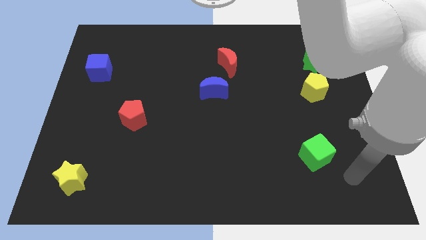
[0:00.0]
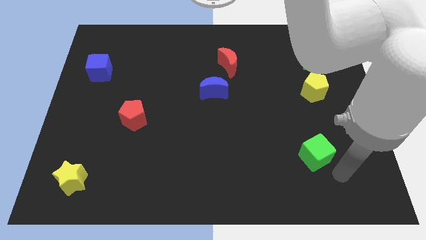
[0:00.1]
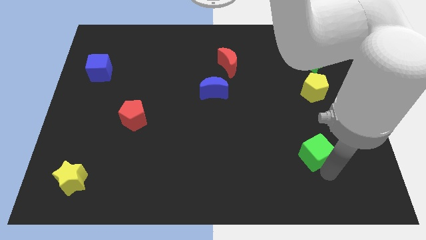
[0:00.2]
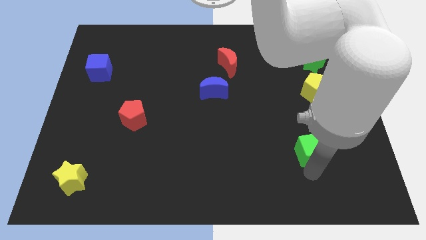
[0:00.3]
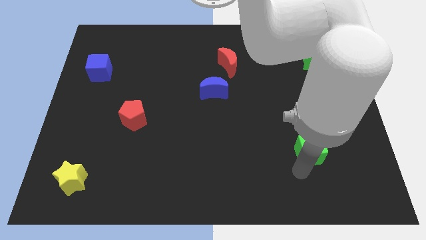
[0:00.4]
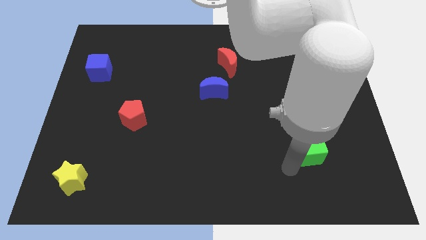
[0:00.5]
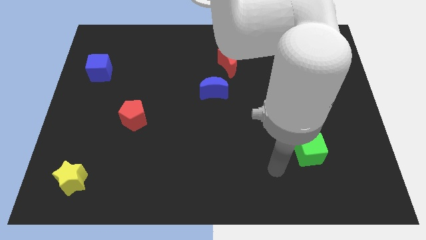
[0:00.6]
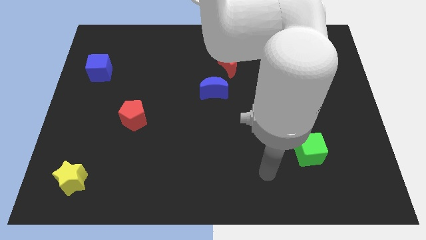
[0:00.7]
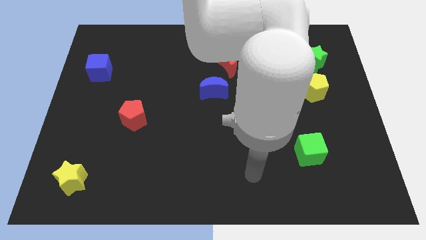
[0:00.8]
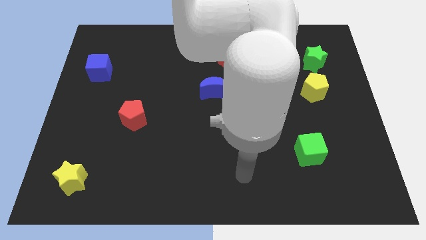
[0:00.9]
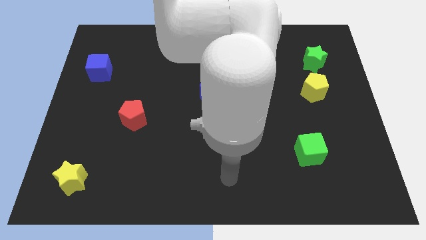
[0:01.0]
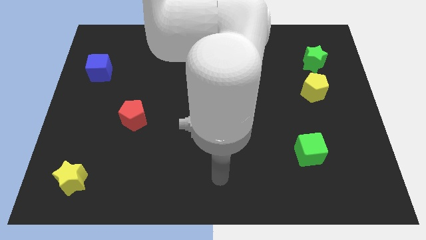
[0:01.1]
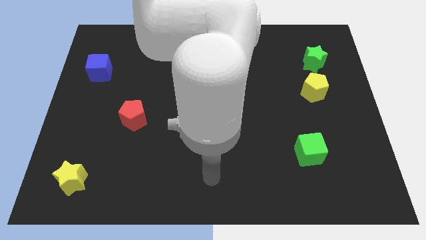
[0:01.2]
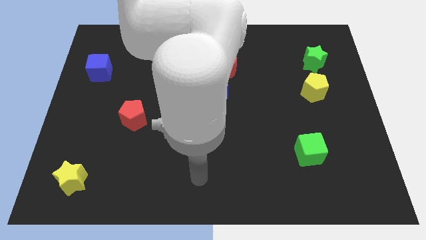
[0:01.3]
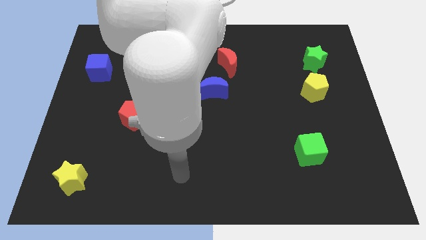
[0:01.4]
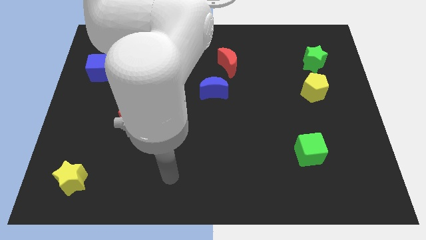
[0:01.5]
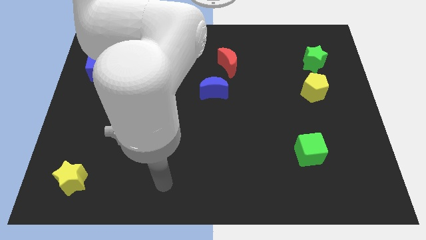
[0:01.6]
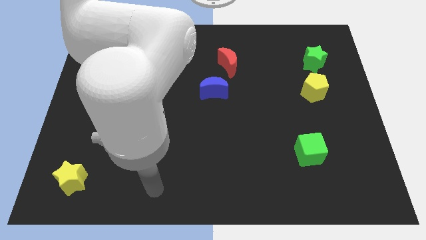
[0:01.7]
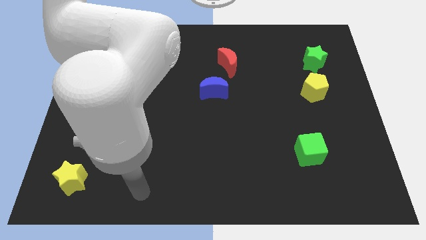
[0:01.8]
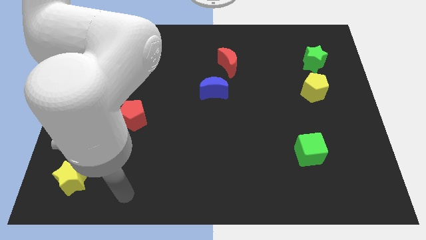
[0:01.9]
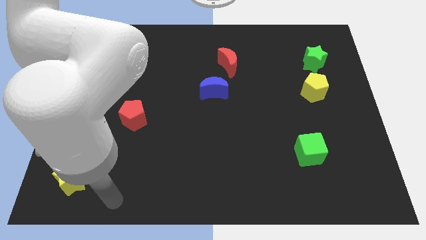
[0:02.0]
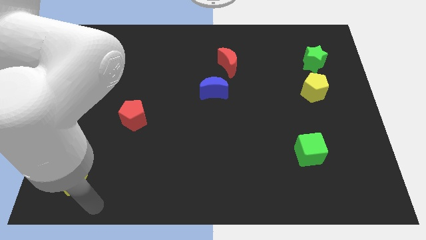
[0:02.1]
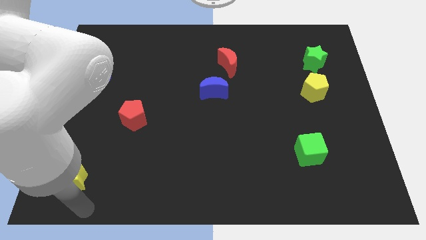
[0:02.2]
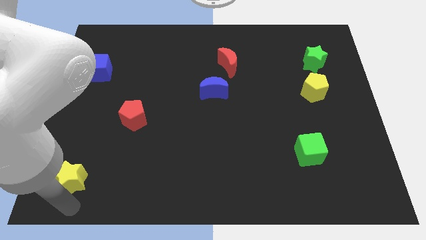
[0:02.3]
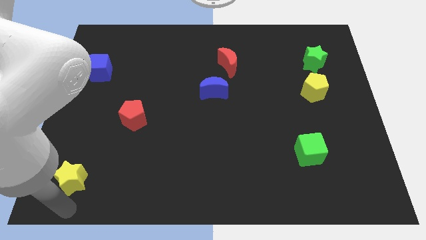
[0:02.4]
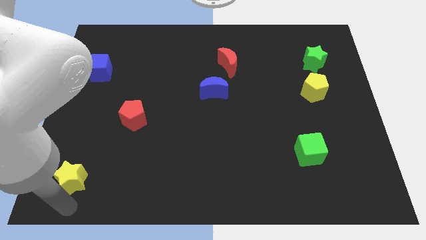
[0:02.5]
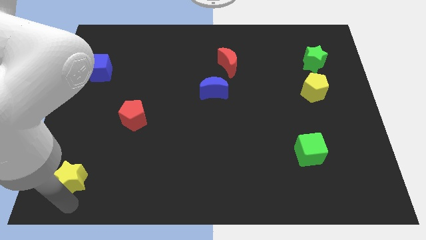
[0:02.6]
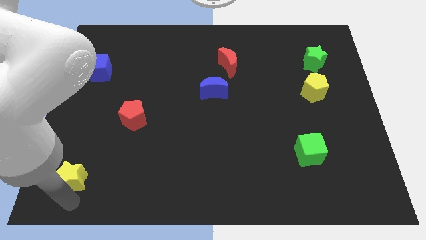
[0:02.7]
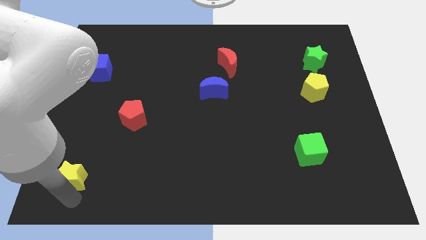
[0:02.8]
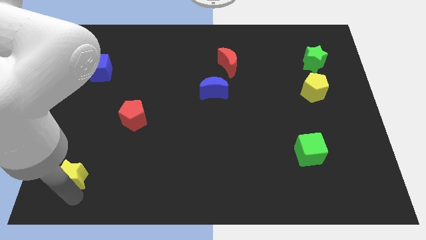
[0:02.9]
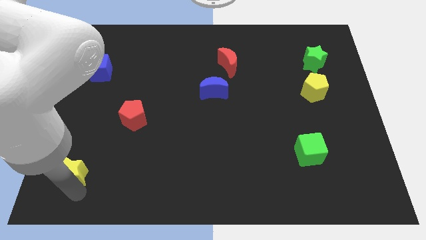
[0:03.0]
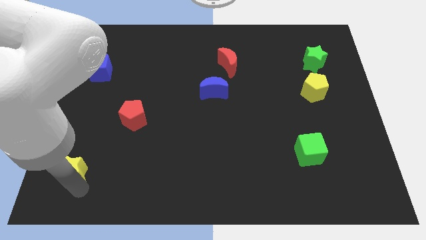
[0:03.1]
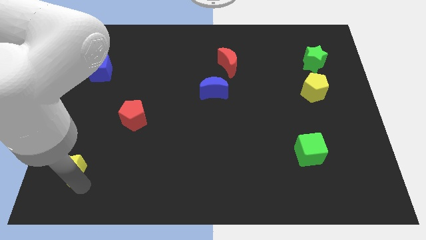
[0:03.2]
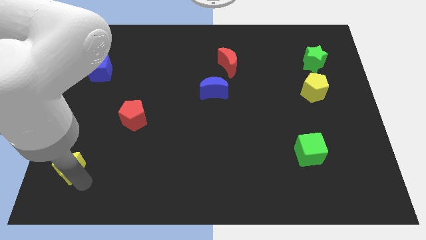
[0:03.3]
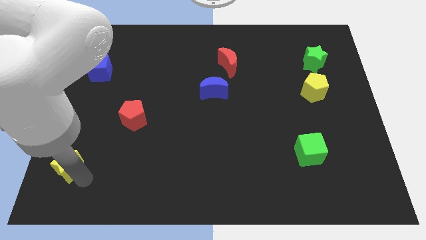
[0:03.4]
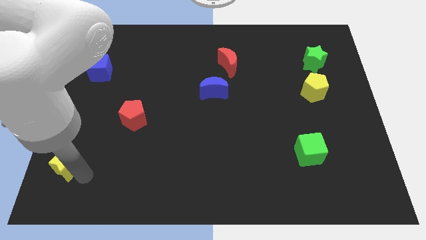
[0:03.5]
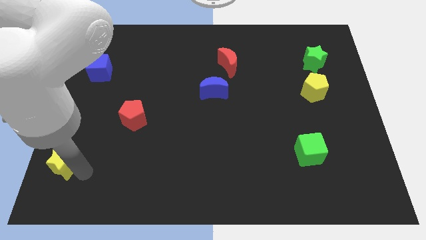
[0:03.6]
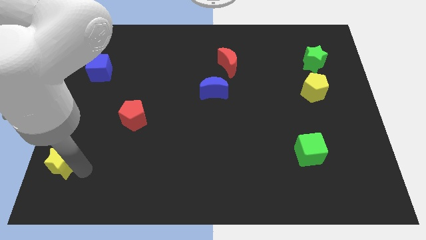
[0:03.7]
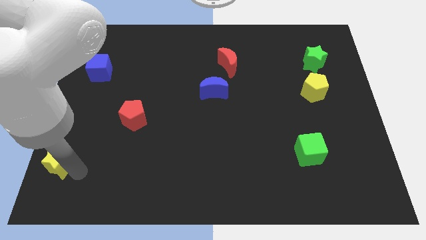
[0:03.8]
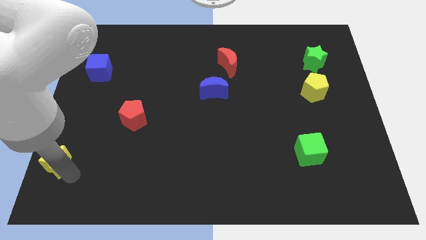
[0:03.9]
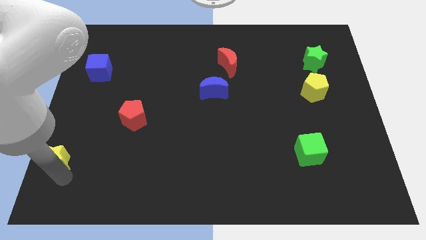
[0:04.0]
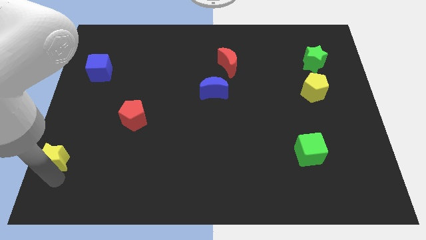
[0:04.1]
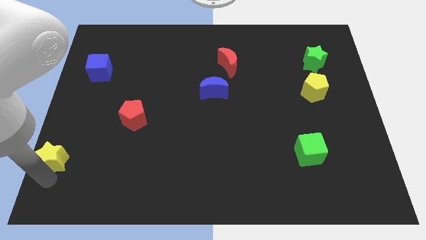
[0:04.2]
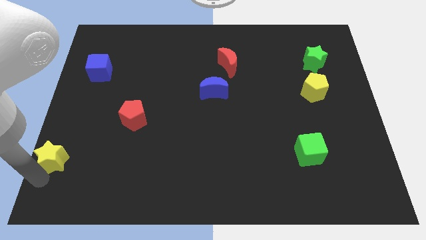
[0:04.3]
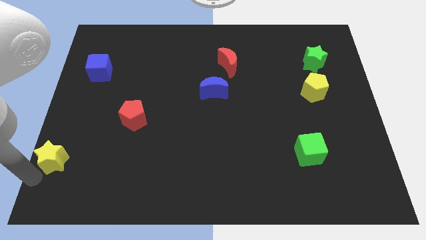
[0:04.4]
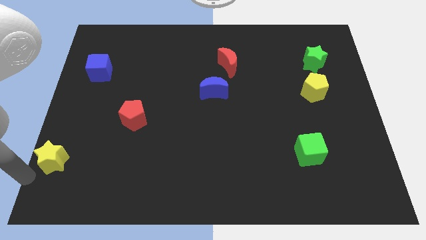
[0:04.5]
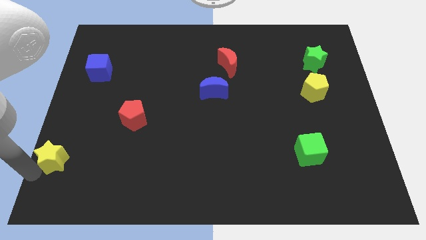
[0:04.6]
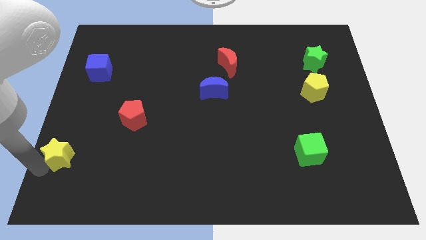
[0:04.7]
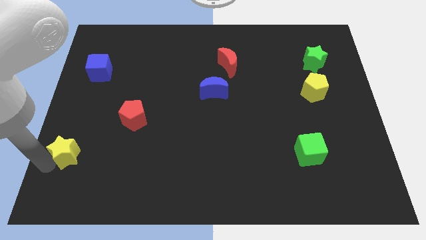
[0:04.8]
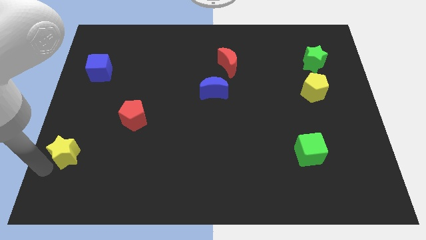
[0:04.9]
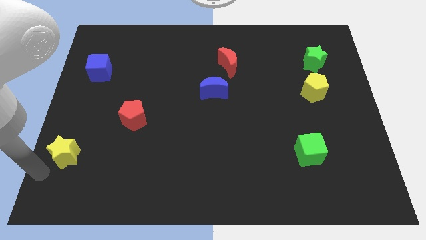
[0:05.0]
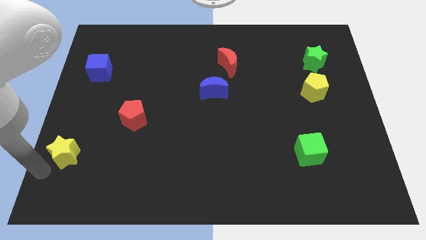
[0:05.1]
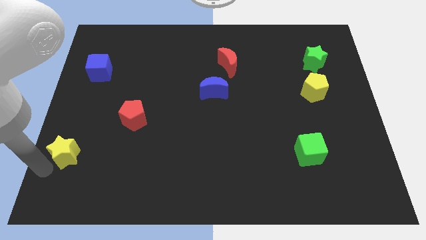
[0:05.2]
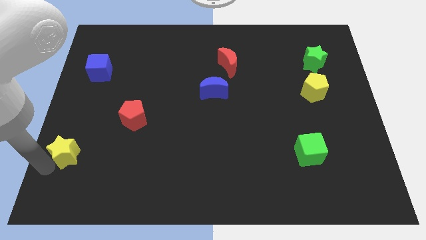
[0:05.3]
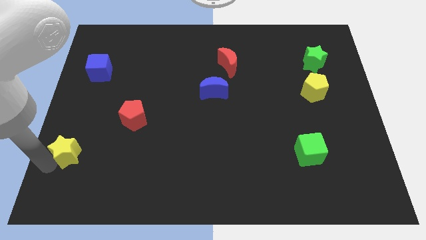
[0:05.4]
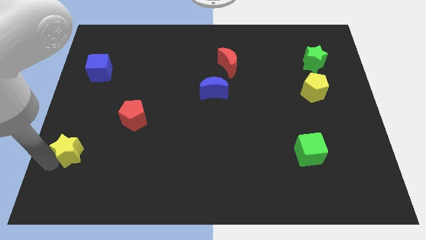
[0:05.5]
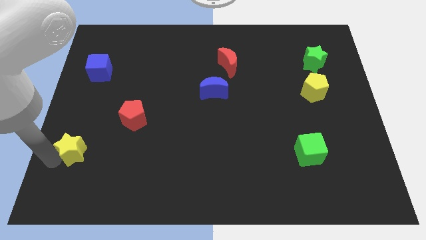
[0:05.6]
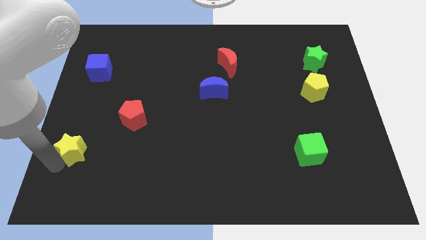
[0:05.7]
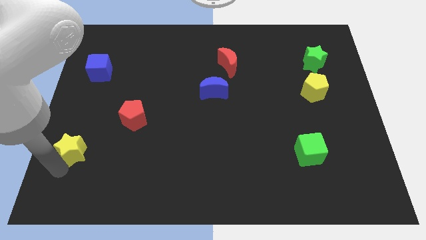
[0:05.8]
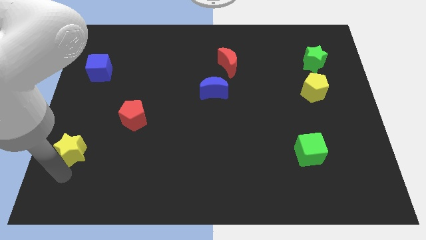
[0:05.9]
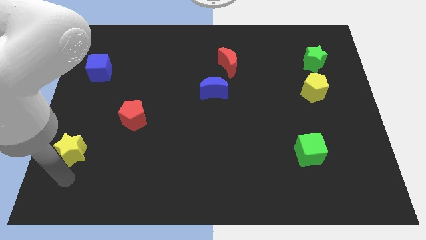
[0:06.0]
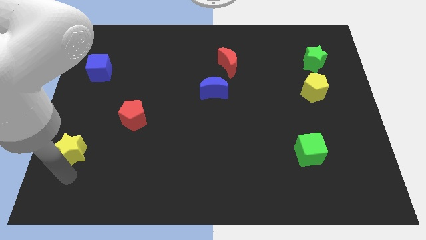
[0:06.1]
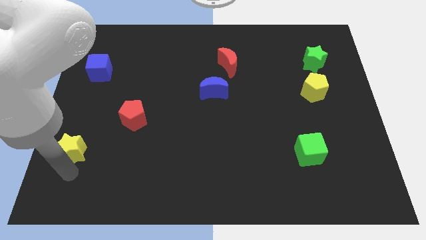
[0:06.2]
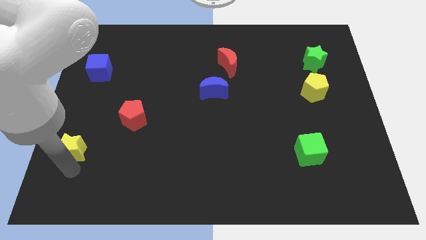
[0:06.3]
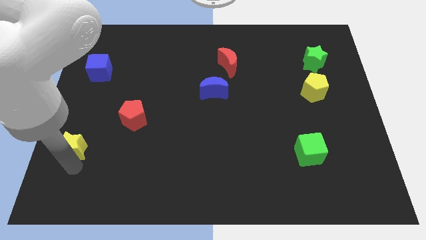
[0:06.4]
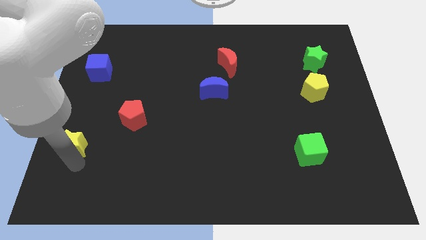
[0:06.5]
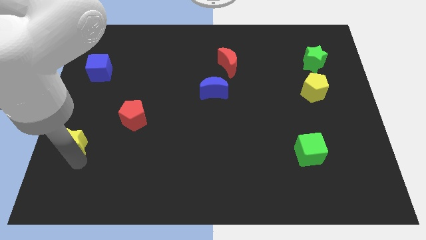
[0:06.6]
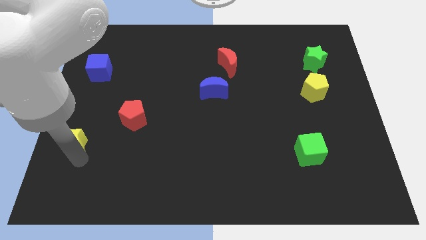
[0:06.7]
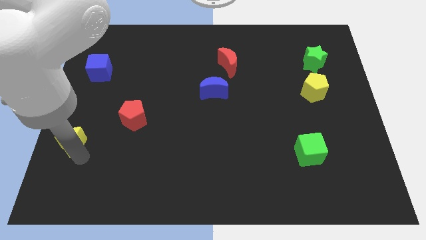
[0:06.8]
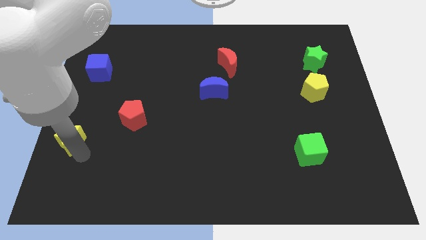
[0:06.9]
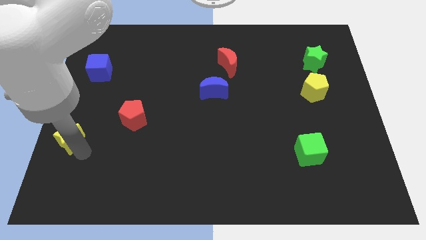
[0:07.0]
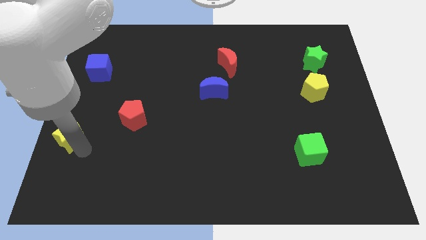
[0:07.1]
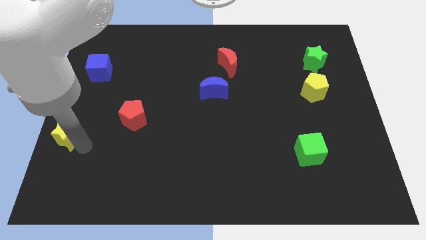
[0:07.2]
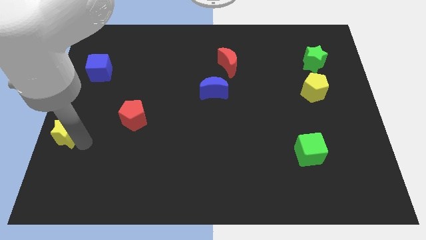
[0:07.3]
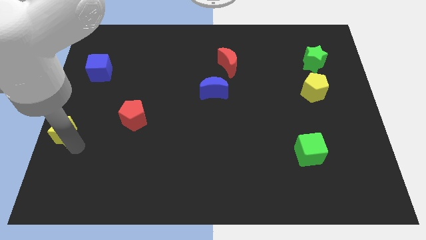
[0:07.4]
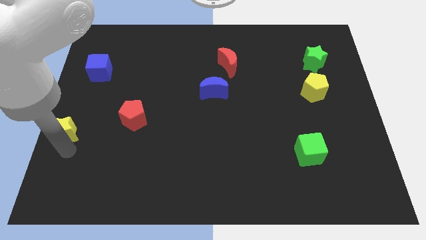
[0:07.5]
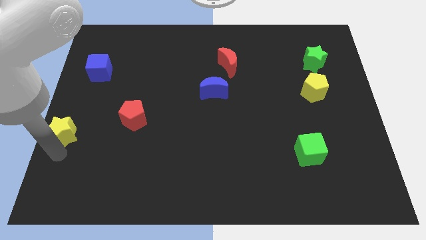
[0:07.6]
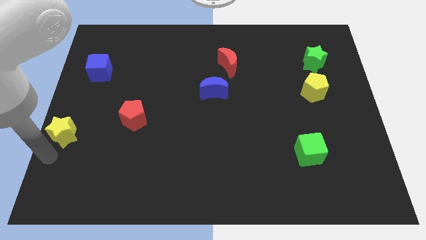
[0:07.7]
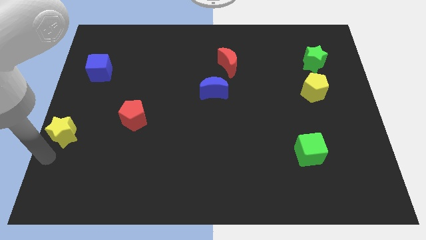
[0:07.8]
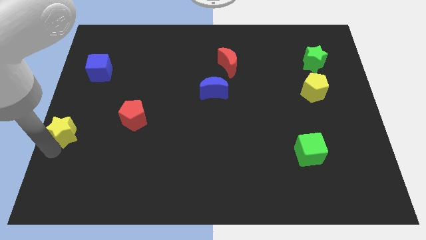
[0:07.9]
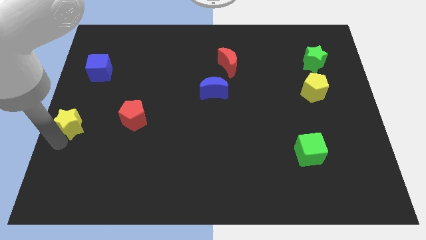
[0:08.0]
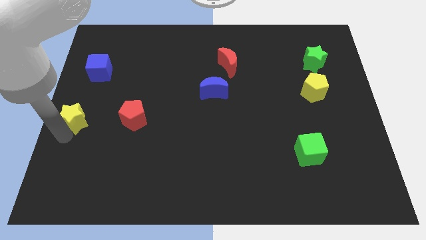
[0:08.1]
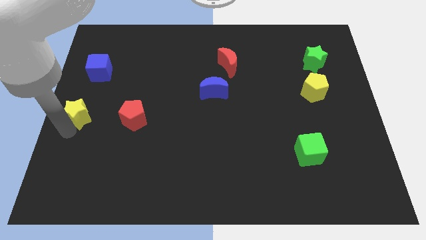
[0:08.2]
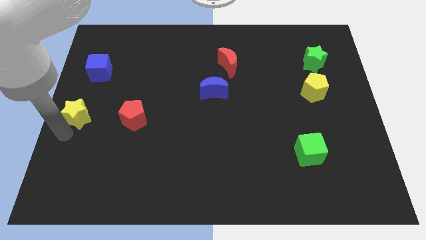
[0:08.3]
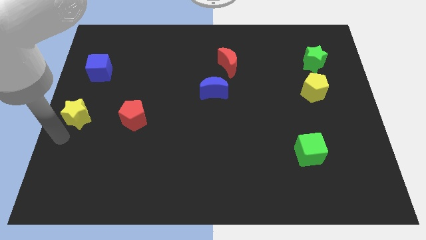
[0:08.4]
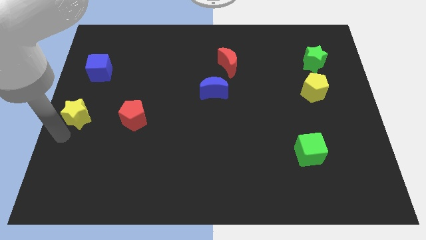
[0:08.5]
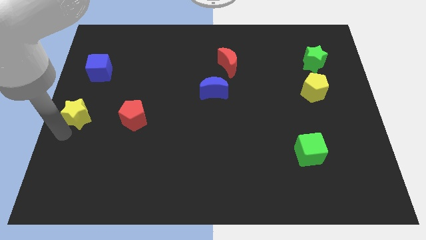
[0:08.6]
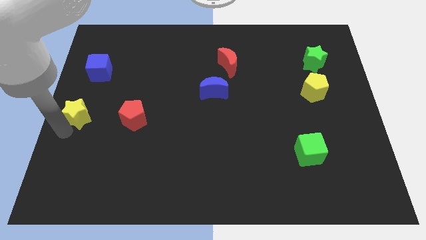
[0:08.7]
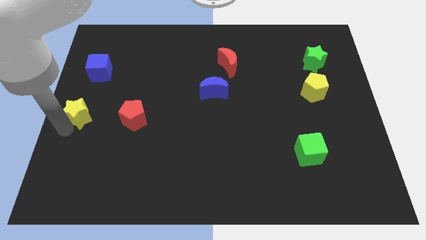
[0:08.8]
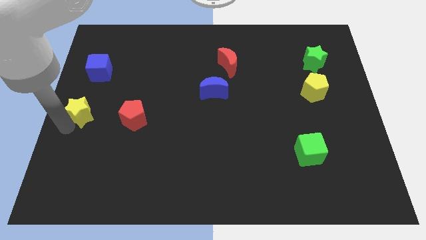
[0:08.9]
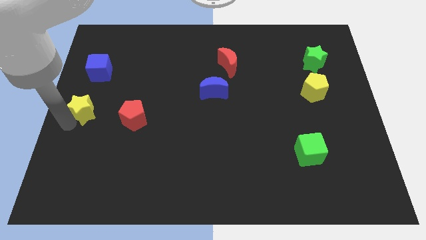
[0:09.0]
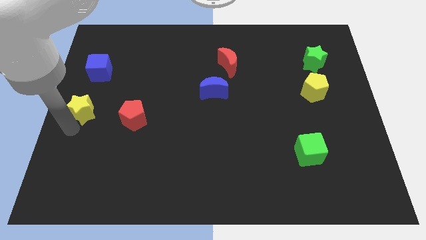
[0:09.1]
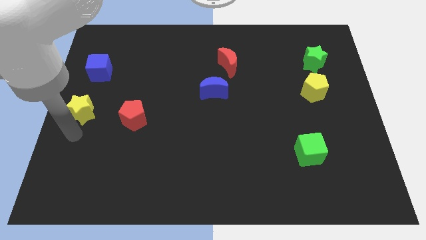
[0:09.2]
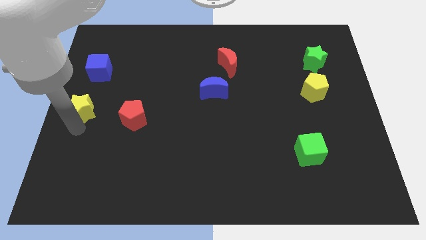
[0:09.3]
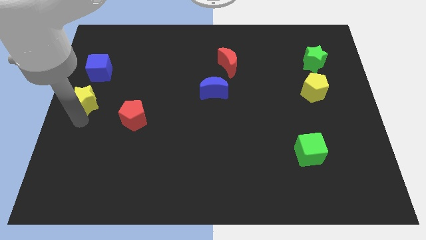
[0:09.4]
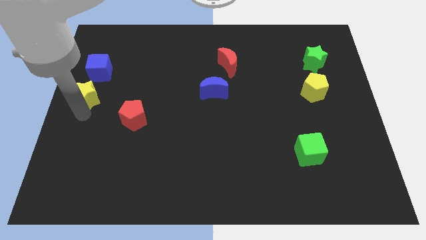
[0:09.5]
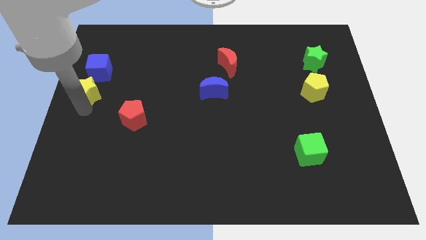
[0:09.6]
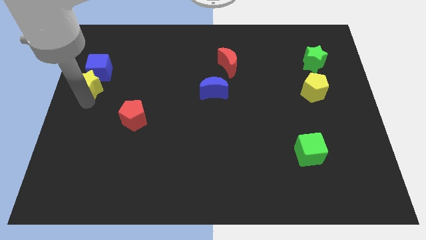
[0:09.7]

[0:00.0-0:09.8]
move the yellow star towards the blue cube
